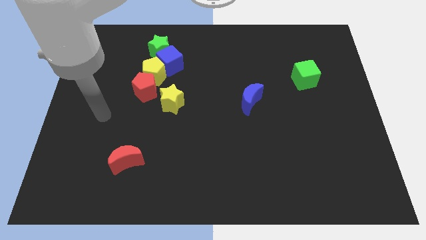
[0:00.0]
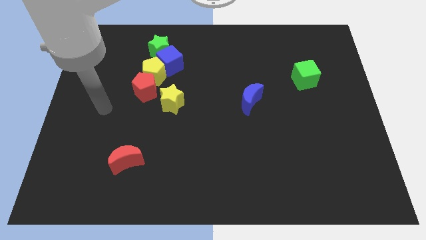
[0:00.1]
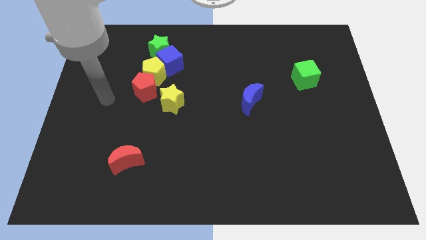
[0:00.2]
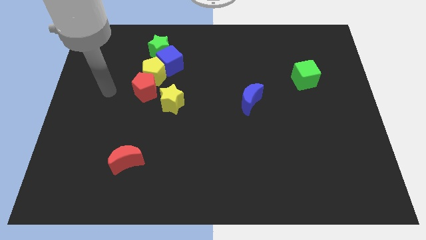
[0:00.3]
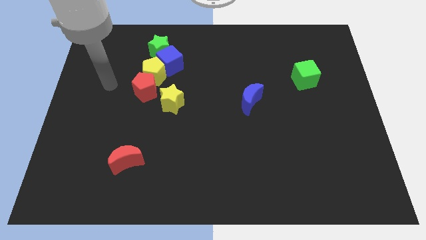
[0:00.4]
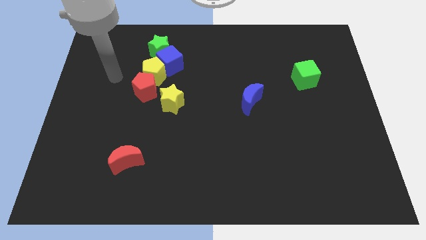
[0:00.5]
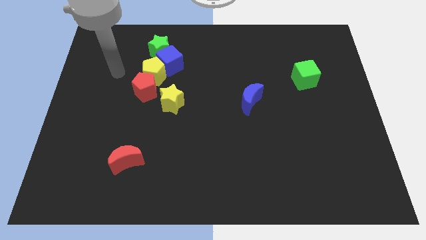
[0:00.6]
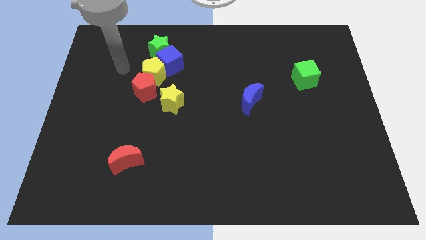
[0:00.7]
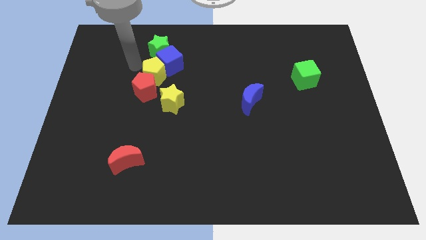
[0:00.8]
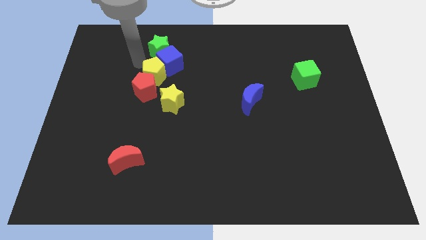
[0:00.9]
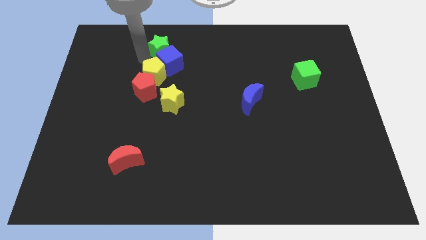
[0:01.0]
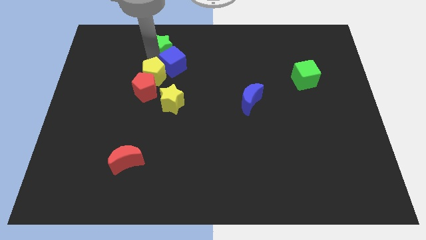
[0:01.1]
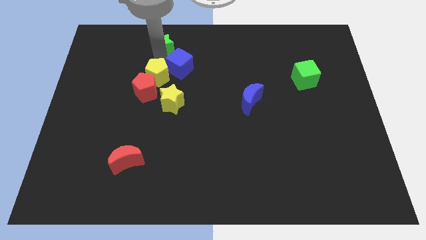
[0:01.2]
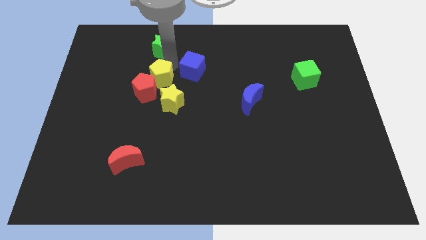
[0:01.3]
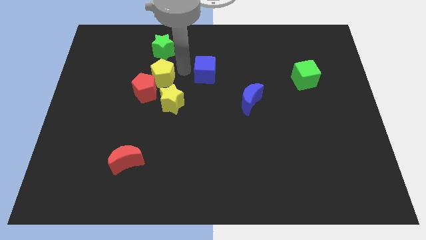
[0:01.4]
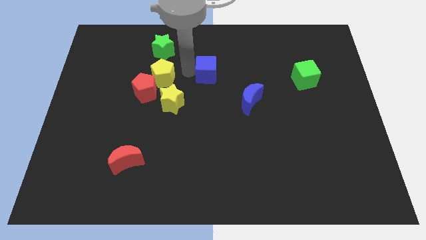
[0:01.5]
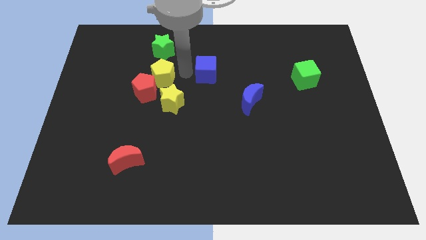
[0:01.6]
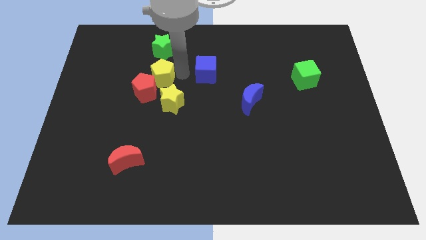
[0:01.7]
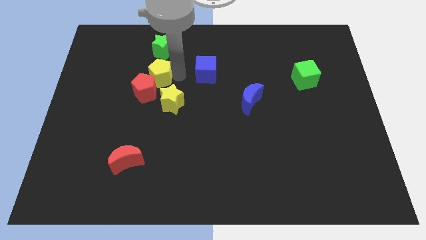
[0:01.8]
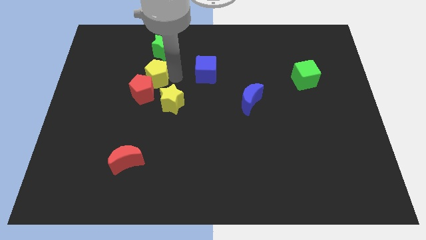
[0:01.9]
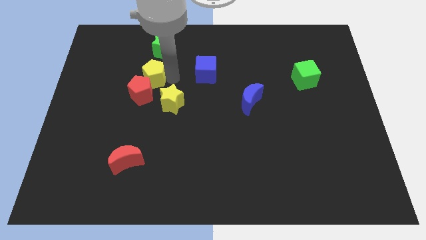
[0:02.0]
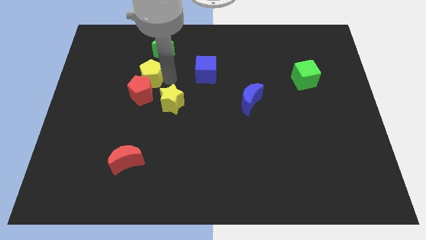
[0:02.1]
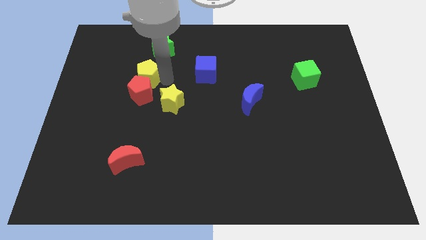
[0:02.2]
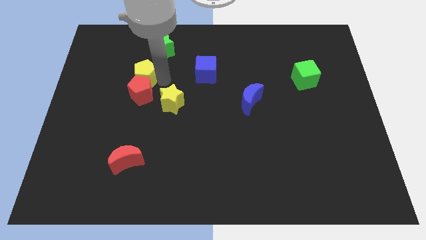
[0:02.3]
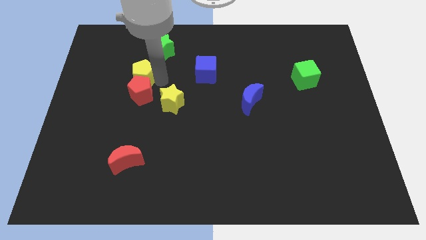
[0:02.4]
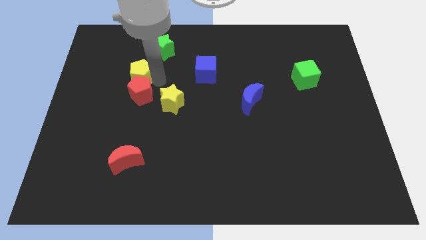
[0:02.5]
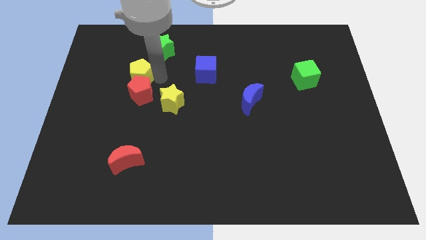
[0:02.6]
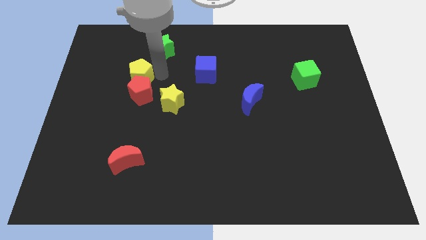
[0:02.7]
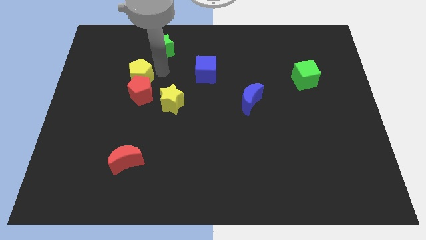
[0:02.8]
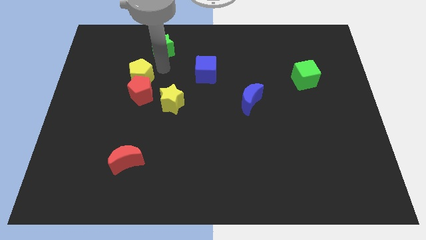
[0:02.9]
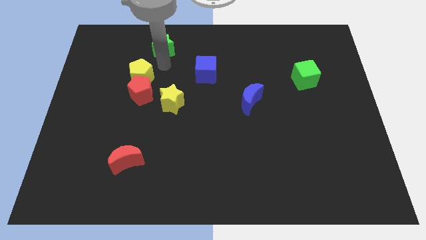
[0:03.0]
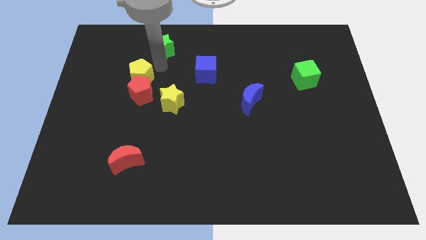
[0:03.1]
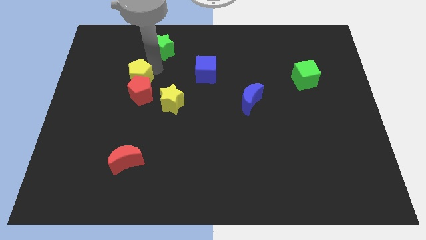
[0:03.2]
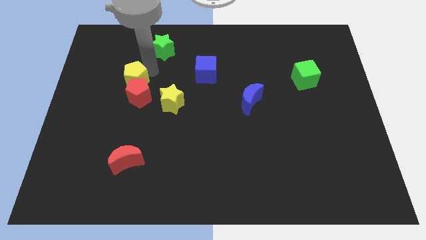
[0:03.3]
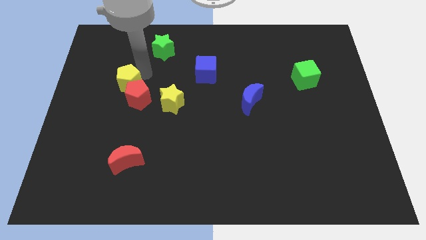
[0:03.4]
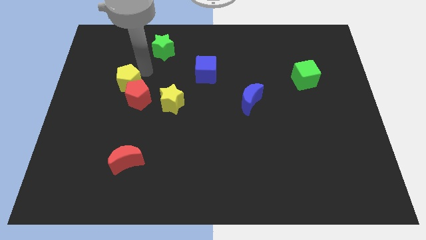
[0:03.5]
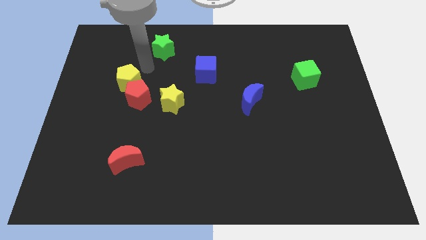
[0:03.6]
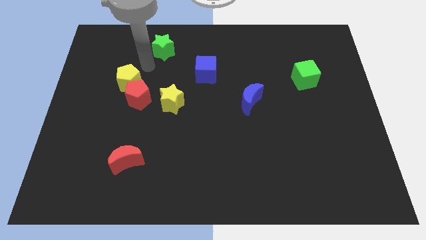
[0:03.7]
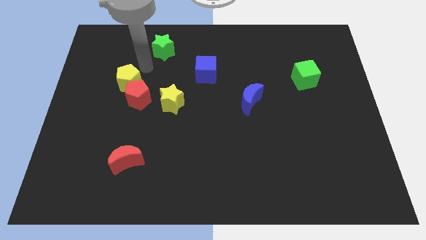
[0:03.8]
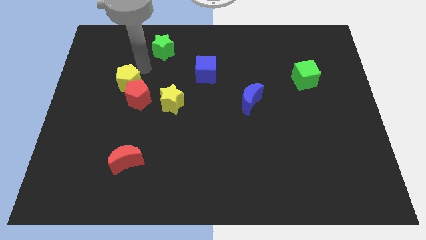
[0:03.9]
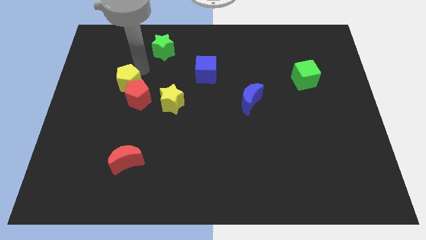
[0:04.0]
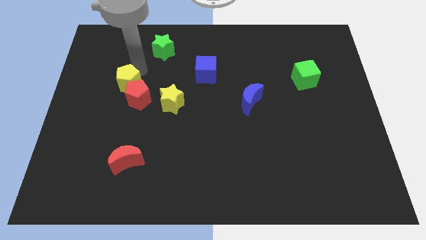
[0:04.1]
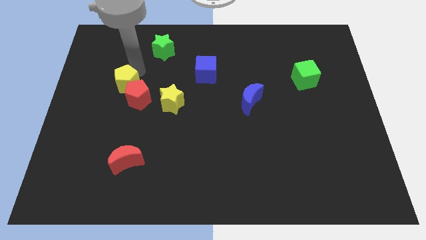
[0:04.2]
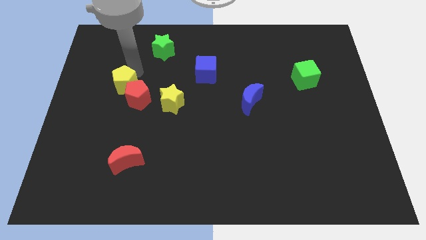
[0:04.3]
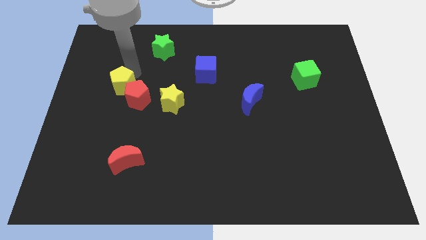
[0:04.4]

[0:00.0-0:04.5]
push the yellow pentagon a little bit downwards and then left

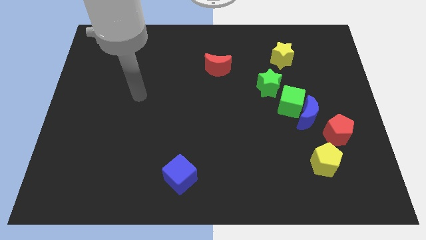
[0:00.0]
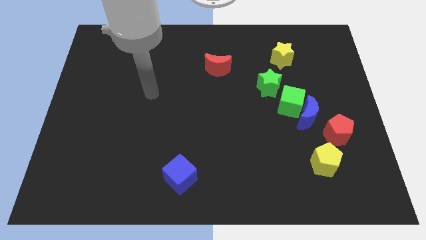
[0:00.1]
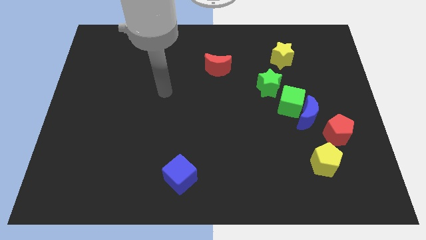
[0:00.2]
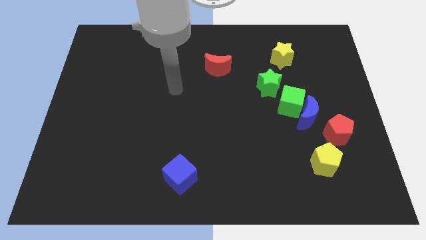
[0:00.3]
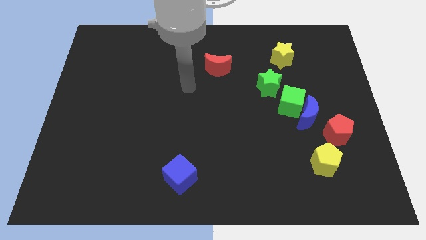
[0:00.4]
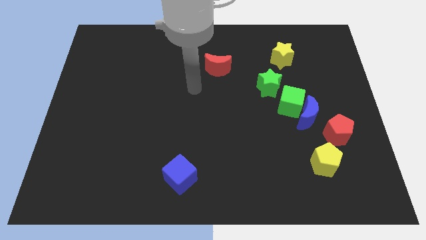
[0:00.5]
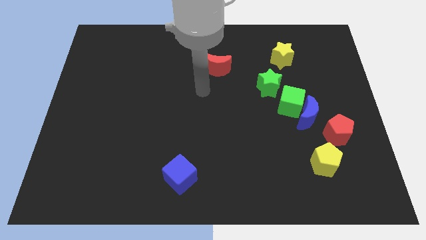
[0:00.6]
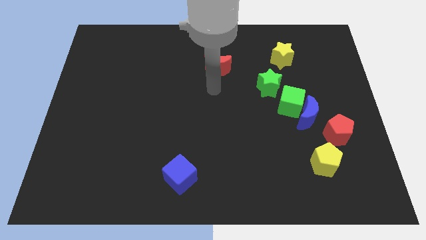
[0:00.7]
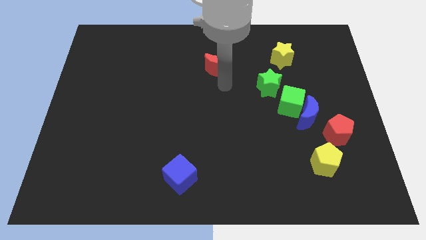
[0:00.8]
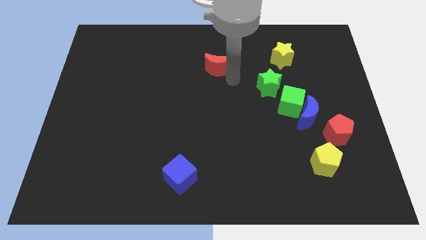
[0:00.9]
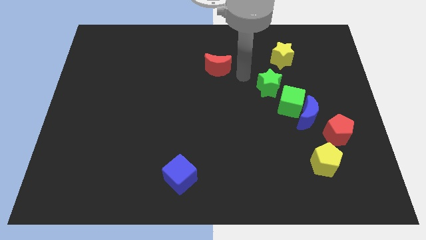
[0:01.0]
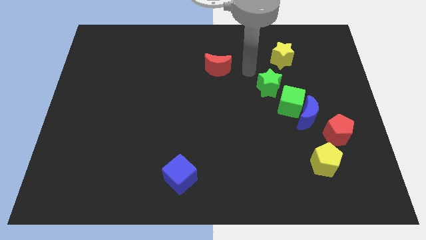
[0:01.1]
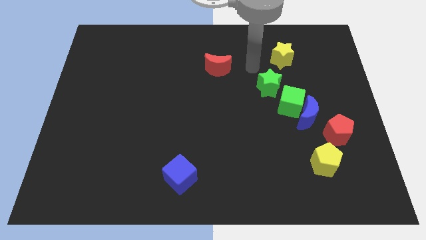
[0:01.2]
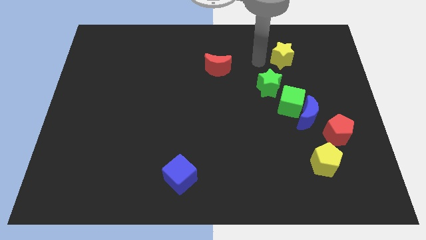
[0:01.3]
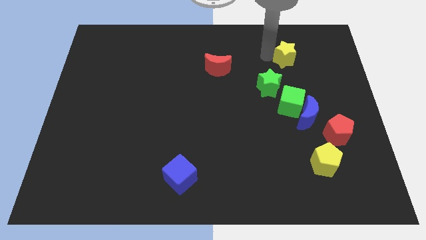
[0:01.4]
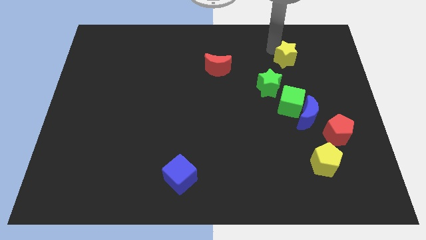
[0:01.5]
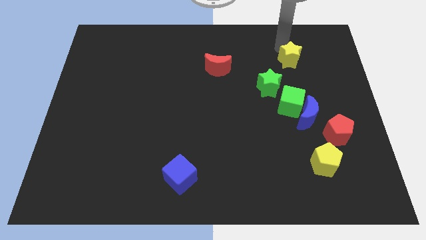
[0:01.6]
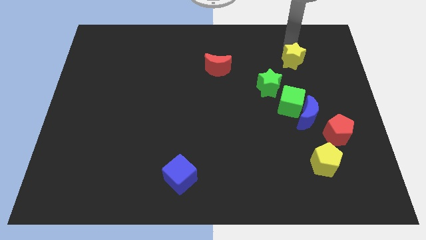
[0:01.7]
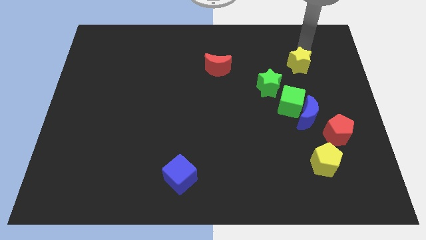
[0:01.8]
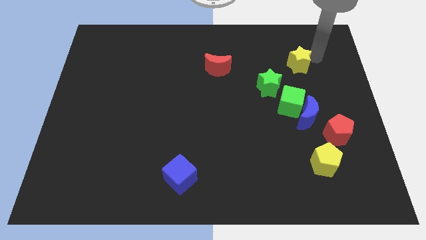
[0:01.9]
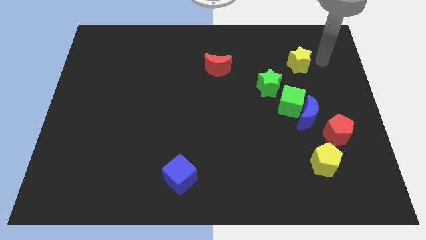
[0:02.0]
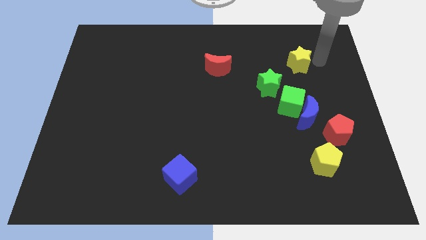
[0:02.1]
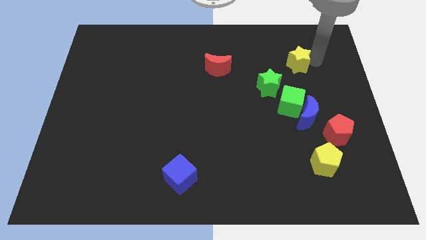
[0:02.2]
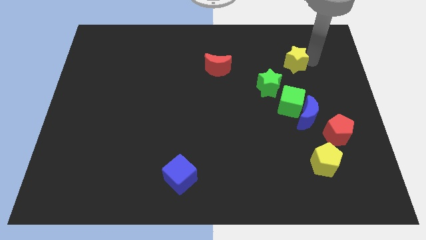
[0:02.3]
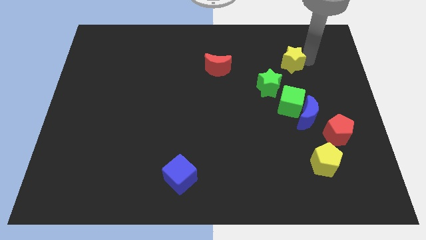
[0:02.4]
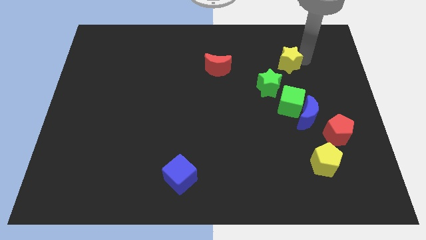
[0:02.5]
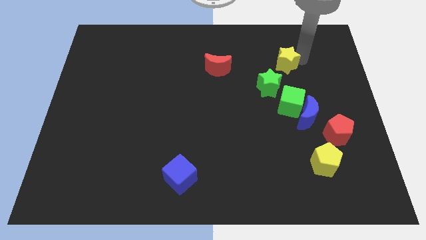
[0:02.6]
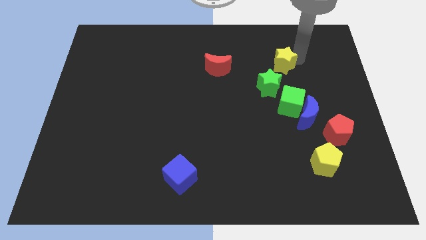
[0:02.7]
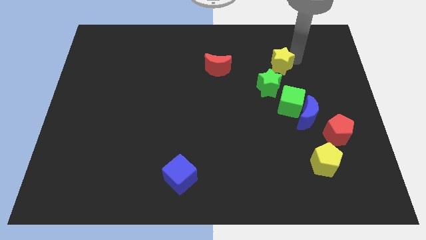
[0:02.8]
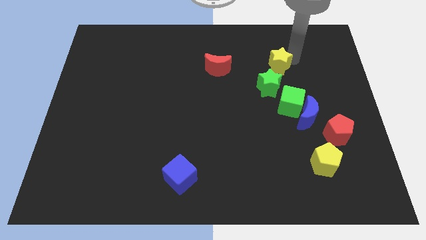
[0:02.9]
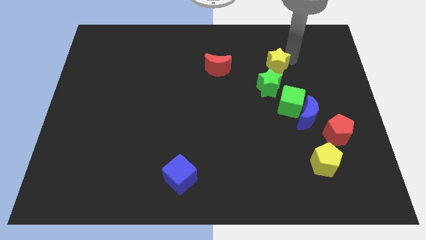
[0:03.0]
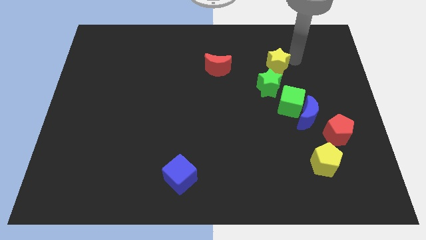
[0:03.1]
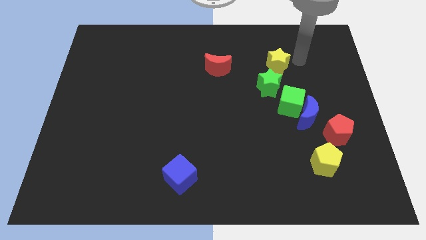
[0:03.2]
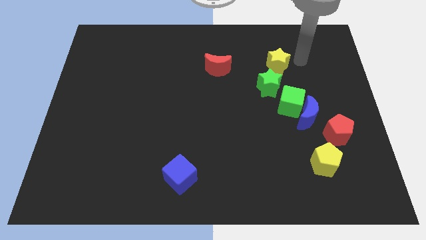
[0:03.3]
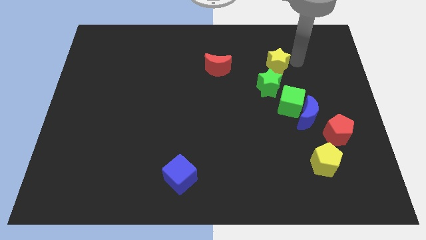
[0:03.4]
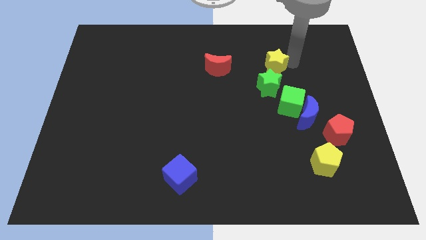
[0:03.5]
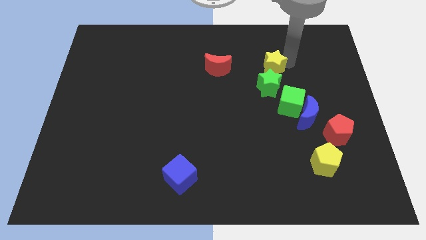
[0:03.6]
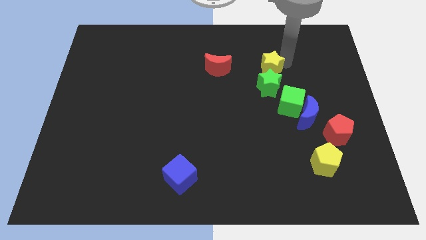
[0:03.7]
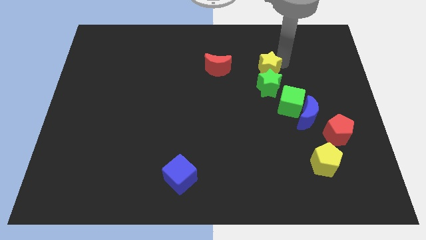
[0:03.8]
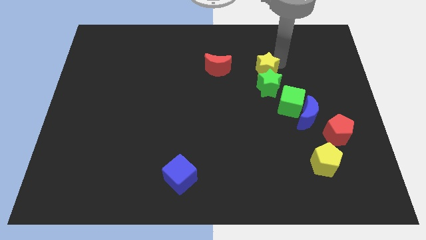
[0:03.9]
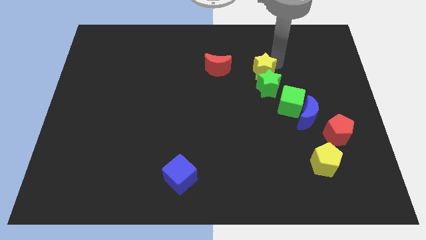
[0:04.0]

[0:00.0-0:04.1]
slide the yellow star somewhat downwards and then to the left
